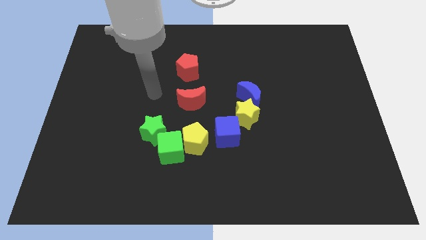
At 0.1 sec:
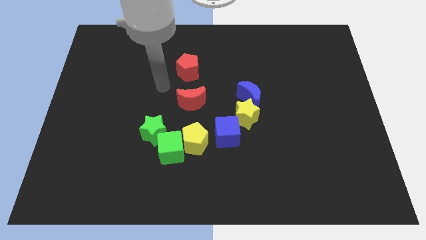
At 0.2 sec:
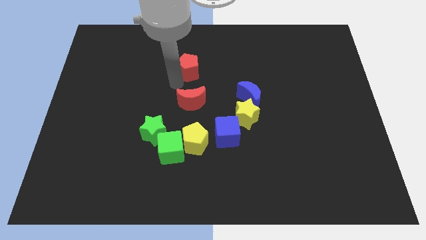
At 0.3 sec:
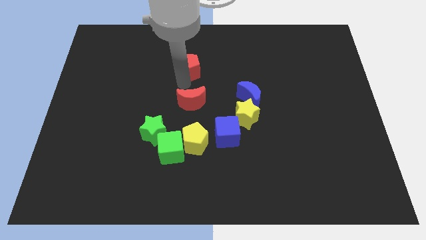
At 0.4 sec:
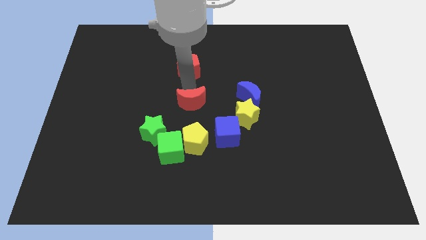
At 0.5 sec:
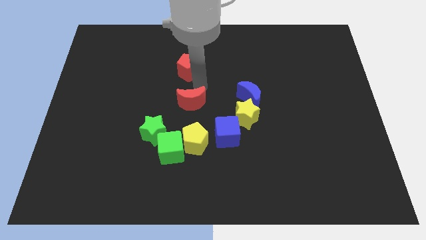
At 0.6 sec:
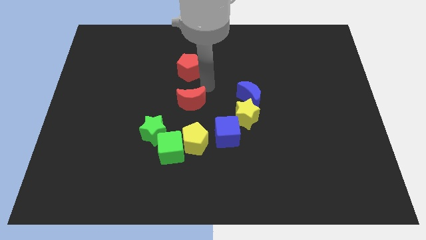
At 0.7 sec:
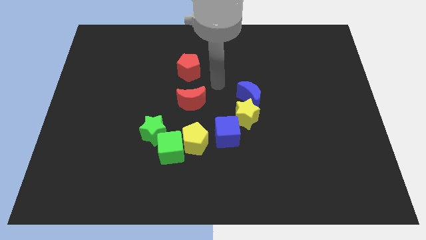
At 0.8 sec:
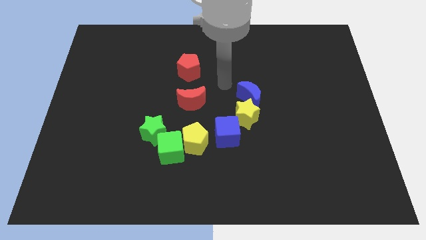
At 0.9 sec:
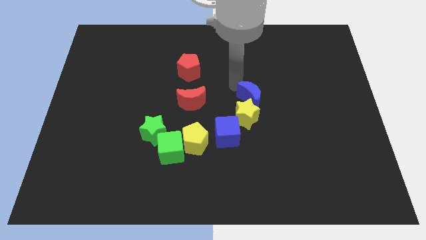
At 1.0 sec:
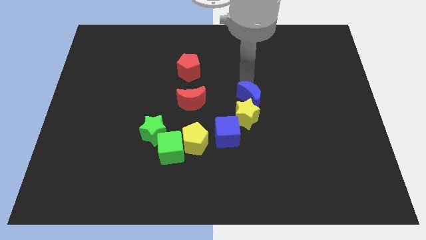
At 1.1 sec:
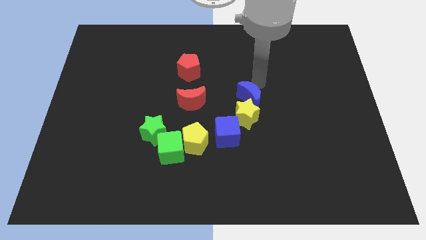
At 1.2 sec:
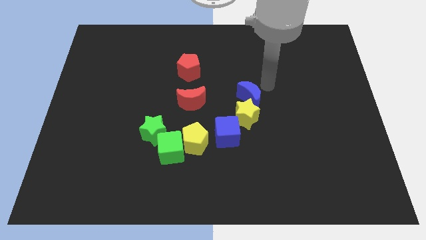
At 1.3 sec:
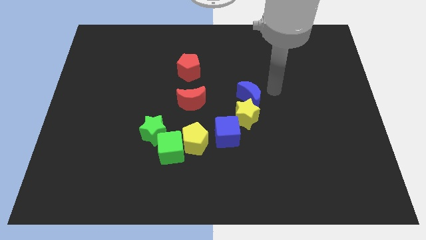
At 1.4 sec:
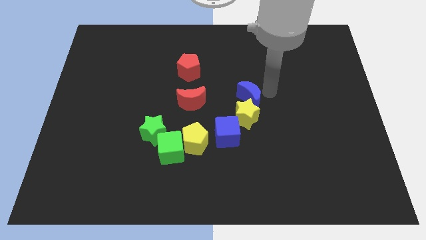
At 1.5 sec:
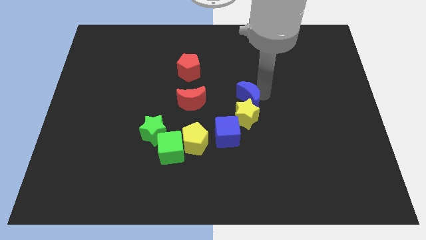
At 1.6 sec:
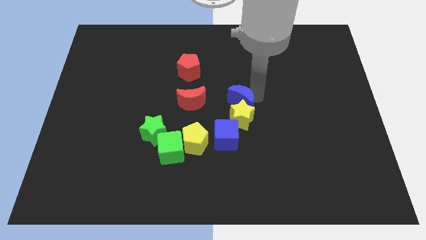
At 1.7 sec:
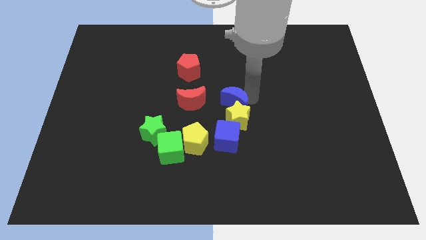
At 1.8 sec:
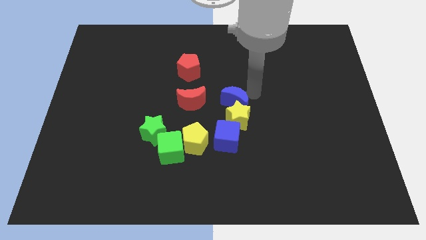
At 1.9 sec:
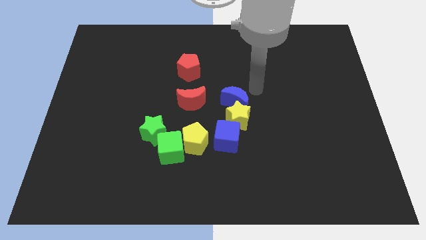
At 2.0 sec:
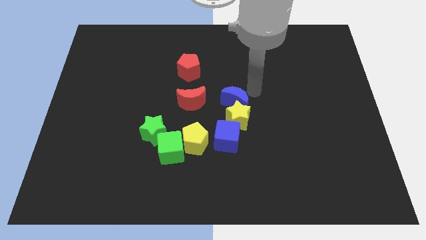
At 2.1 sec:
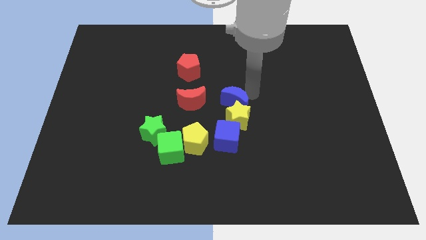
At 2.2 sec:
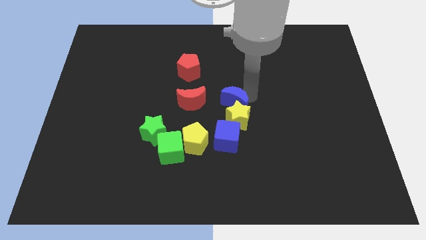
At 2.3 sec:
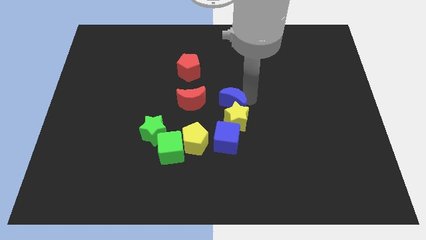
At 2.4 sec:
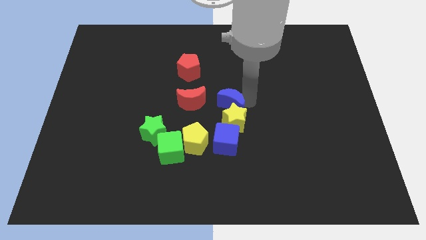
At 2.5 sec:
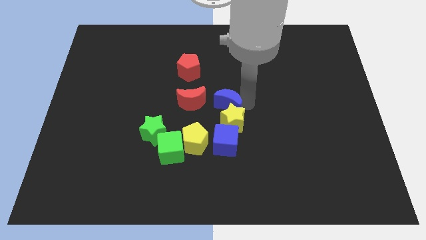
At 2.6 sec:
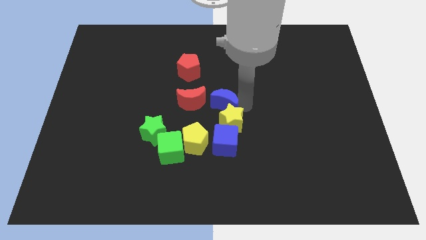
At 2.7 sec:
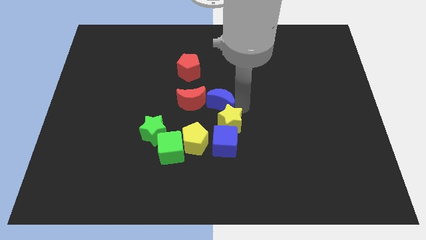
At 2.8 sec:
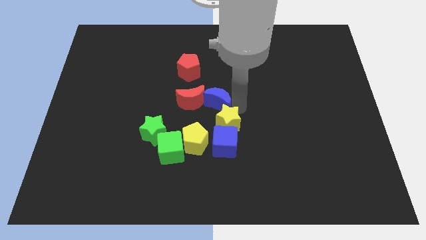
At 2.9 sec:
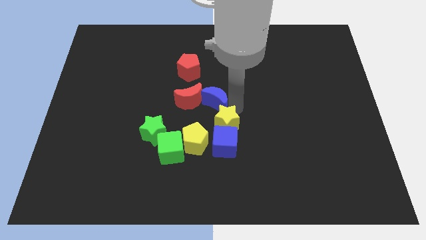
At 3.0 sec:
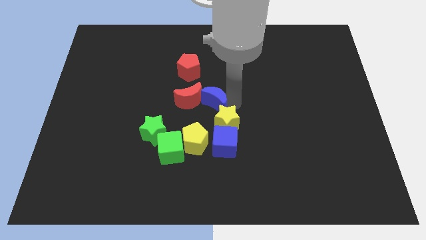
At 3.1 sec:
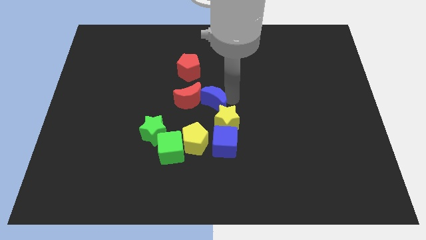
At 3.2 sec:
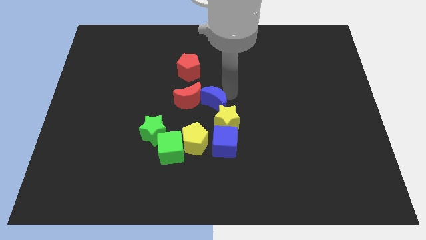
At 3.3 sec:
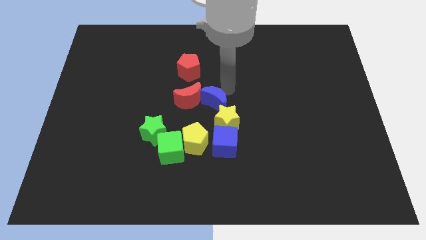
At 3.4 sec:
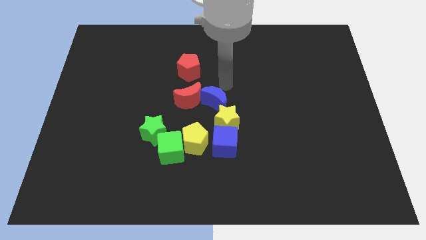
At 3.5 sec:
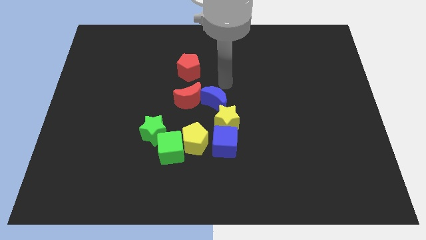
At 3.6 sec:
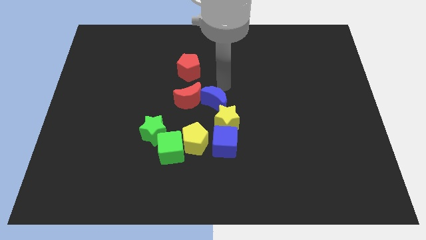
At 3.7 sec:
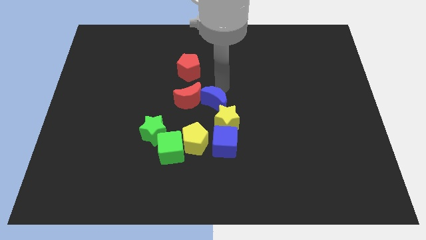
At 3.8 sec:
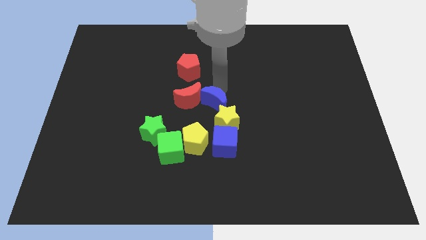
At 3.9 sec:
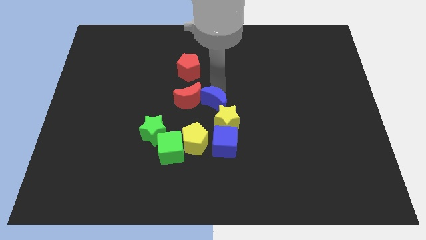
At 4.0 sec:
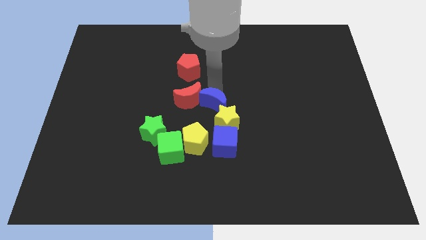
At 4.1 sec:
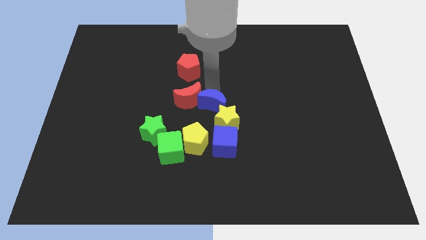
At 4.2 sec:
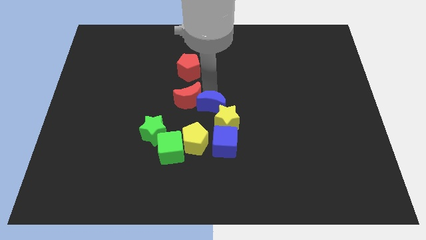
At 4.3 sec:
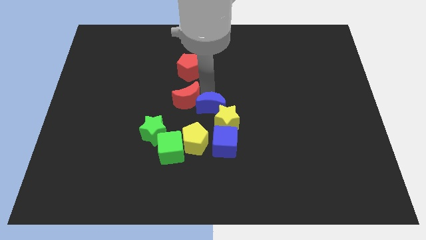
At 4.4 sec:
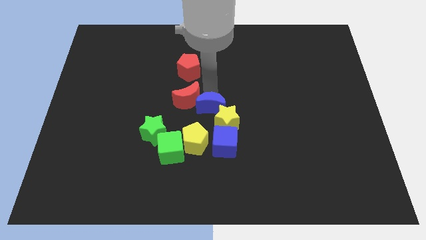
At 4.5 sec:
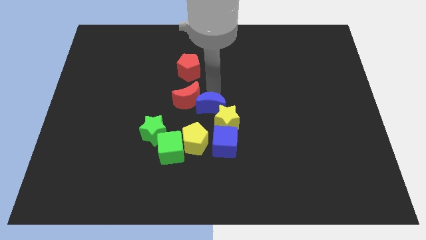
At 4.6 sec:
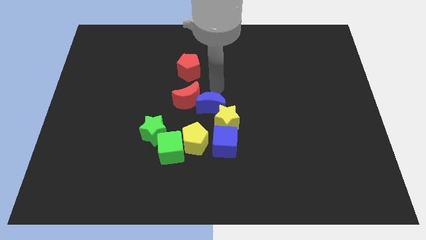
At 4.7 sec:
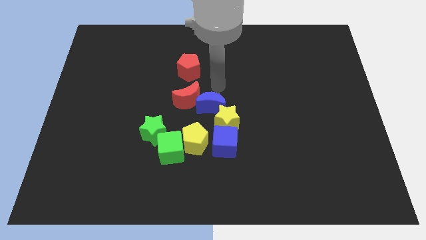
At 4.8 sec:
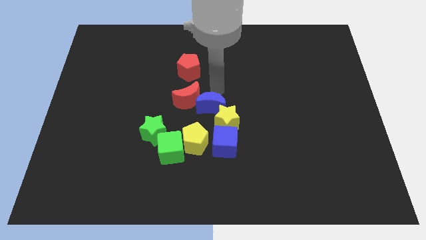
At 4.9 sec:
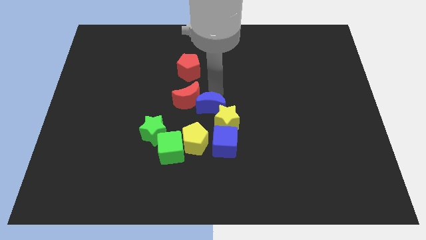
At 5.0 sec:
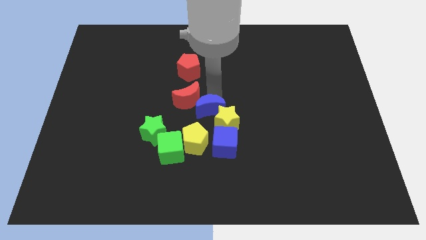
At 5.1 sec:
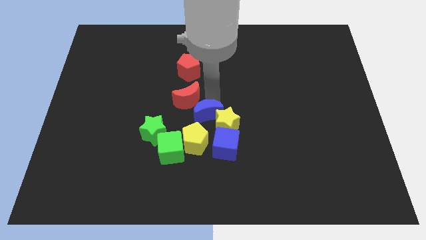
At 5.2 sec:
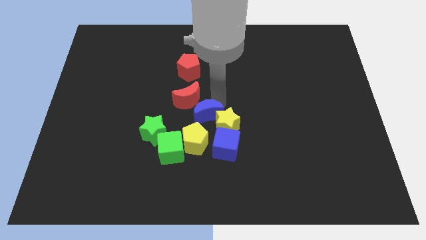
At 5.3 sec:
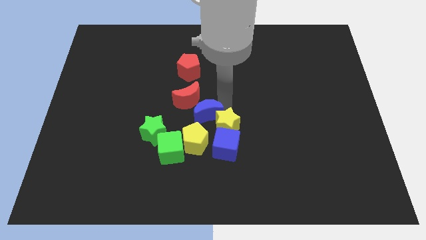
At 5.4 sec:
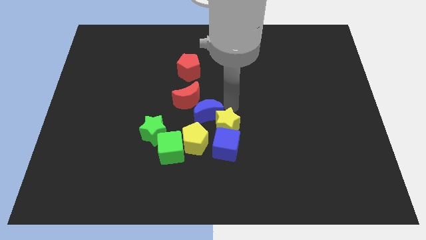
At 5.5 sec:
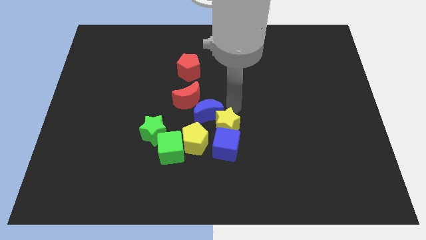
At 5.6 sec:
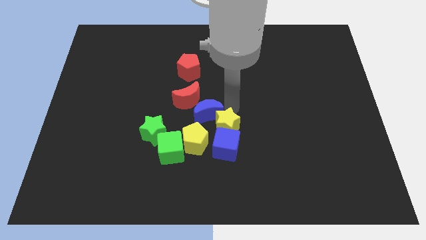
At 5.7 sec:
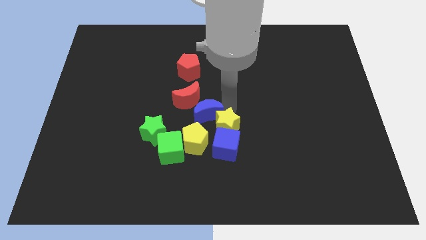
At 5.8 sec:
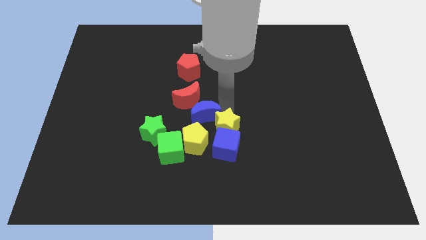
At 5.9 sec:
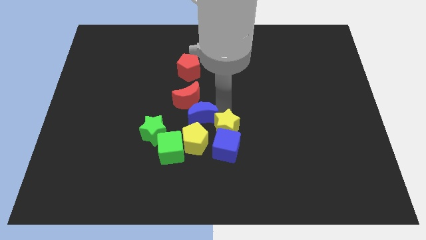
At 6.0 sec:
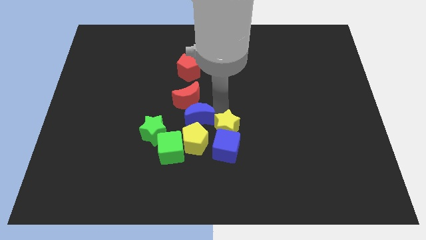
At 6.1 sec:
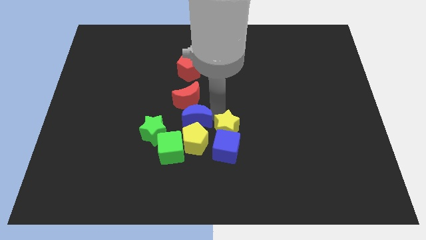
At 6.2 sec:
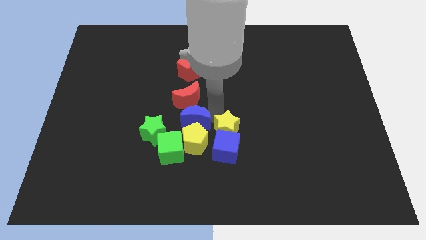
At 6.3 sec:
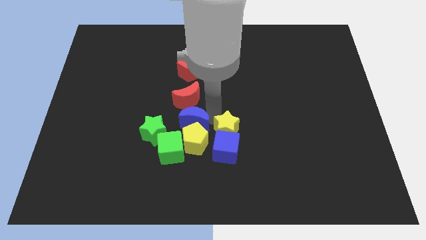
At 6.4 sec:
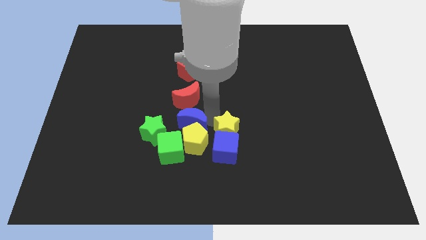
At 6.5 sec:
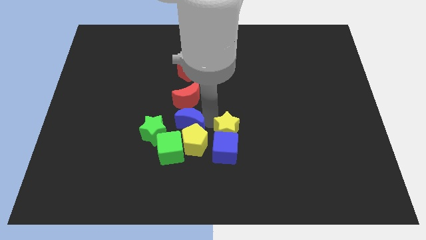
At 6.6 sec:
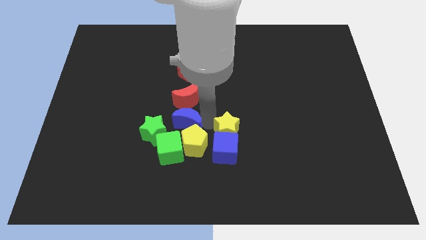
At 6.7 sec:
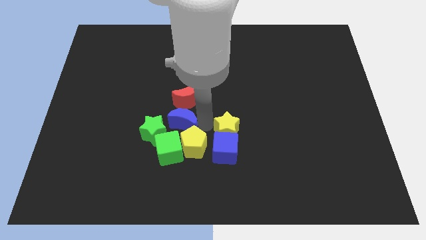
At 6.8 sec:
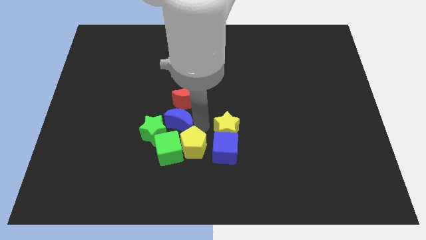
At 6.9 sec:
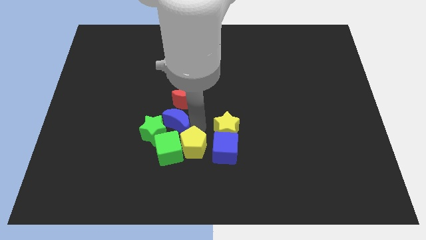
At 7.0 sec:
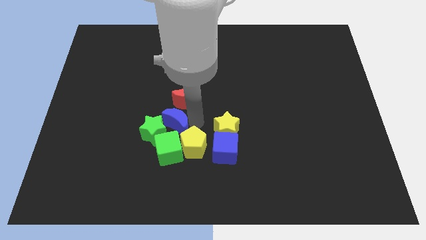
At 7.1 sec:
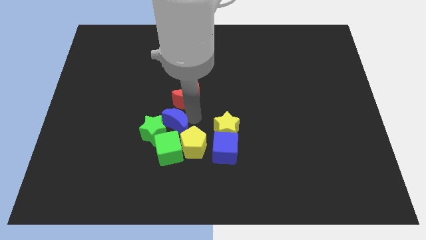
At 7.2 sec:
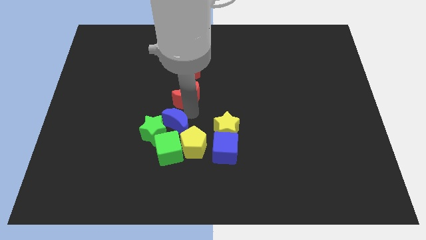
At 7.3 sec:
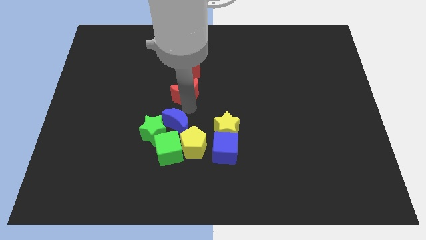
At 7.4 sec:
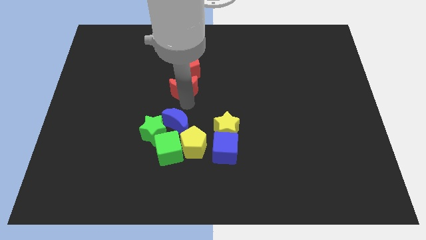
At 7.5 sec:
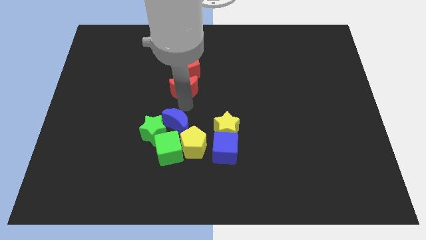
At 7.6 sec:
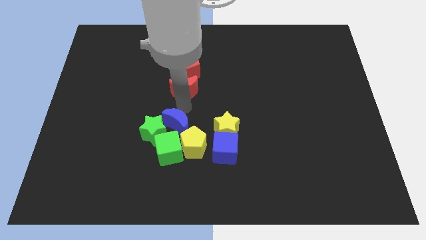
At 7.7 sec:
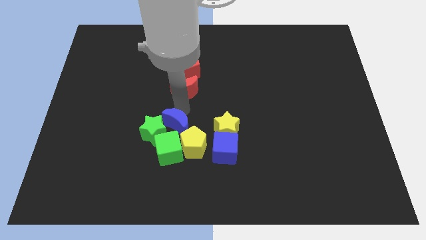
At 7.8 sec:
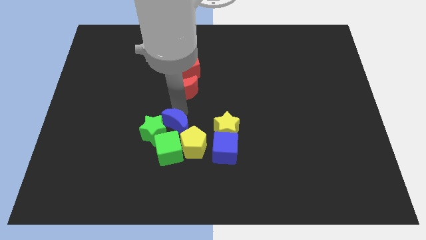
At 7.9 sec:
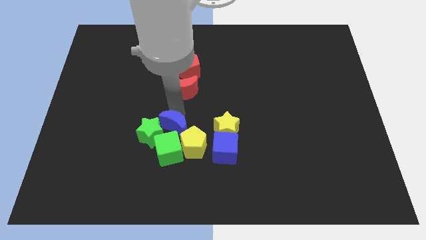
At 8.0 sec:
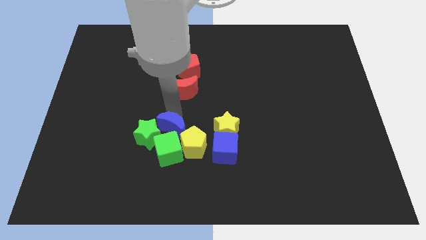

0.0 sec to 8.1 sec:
put the blue moon next to the green cube

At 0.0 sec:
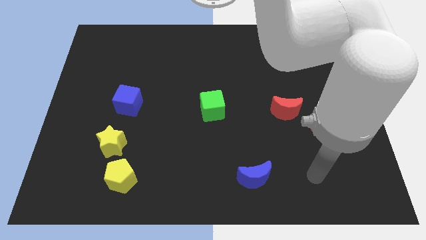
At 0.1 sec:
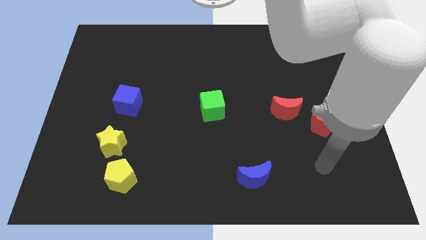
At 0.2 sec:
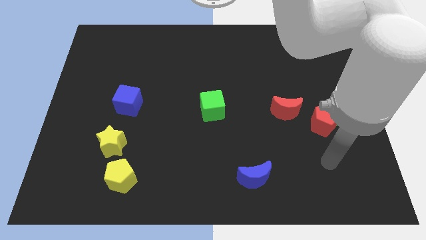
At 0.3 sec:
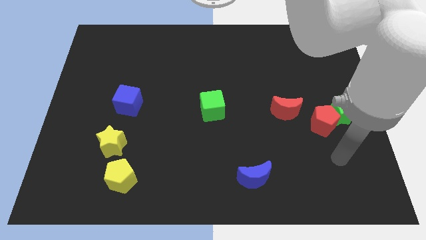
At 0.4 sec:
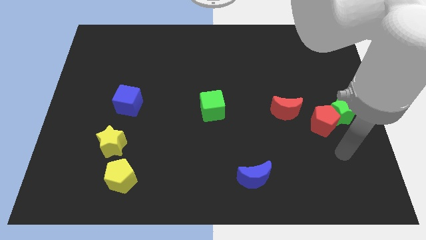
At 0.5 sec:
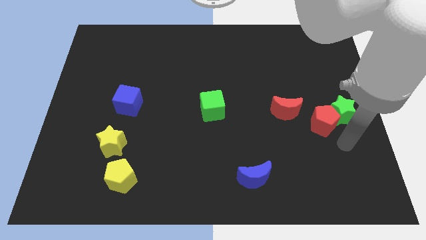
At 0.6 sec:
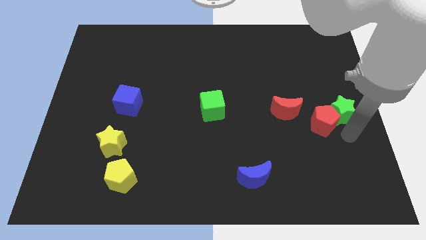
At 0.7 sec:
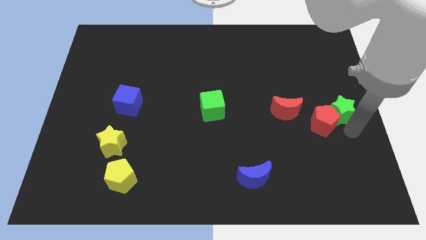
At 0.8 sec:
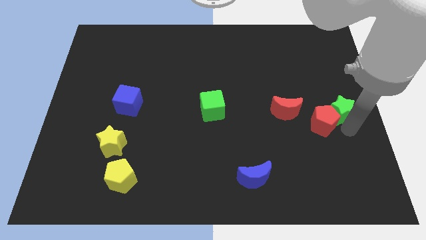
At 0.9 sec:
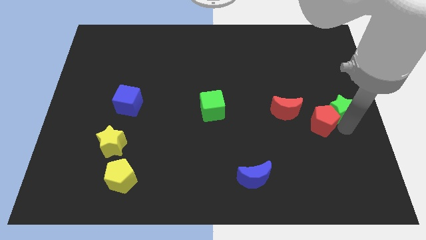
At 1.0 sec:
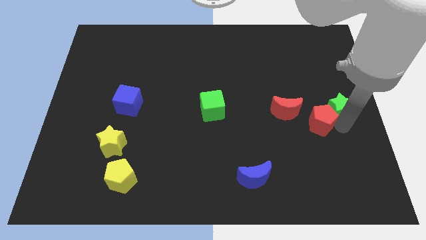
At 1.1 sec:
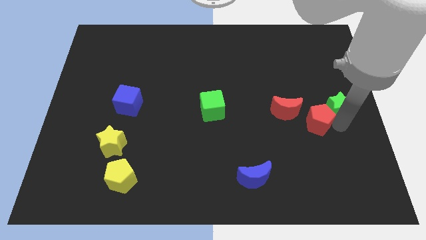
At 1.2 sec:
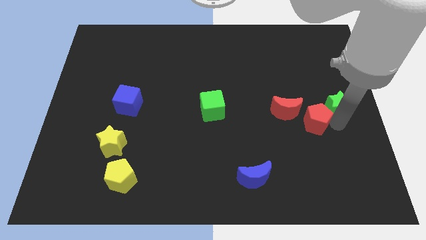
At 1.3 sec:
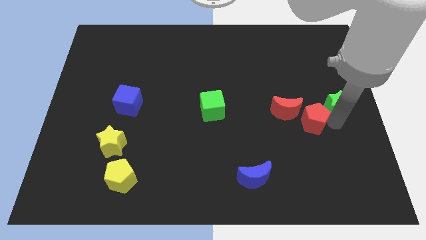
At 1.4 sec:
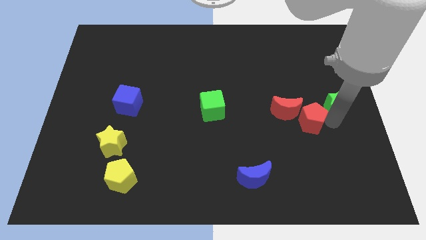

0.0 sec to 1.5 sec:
put the red pentagon towards the red moon
